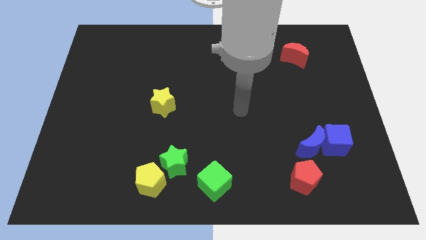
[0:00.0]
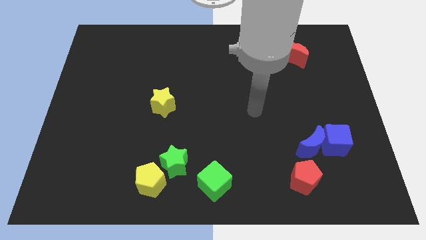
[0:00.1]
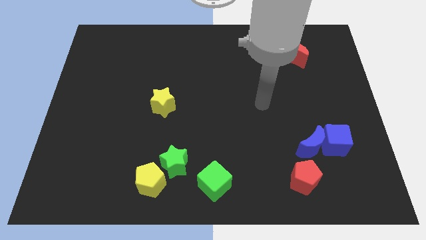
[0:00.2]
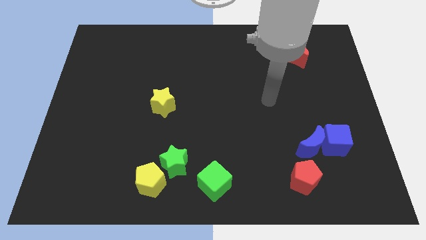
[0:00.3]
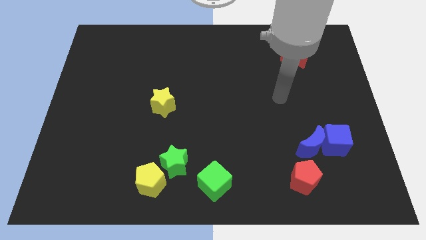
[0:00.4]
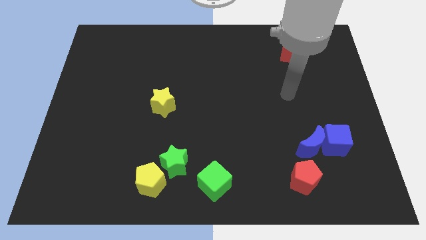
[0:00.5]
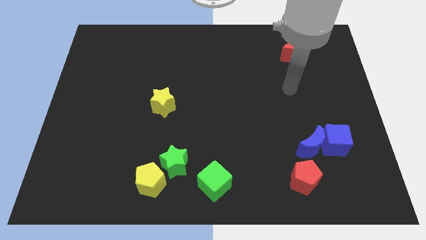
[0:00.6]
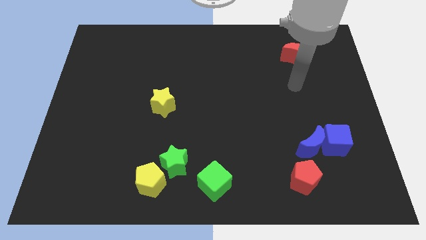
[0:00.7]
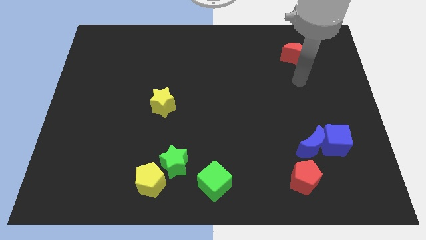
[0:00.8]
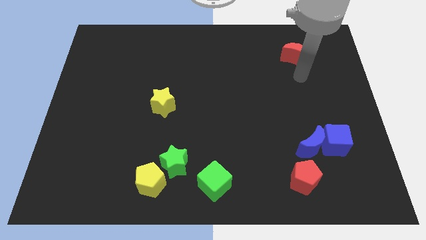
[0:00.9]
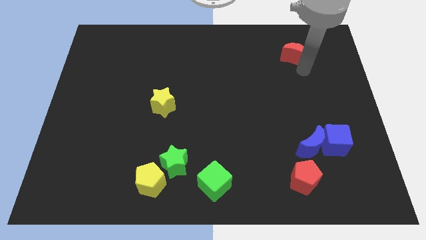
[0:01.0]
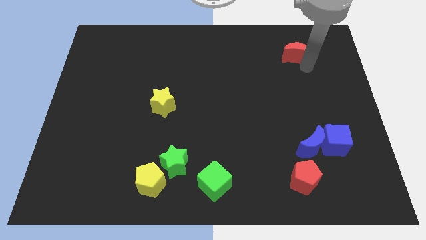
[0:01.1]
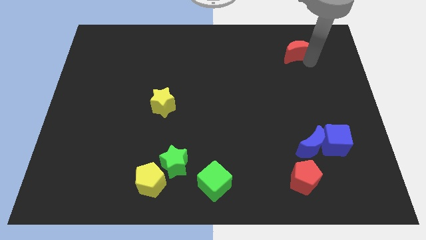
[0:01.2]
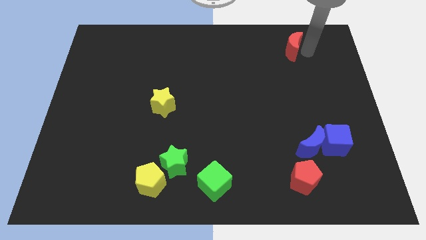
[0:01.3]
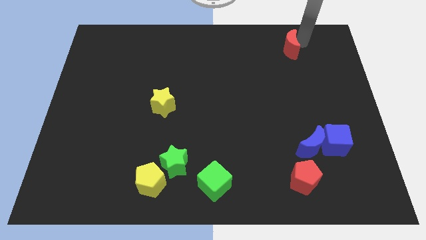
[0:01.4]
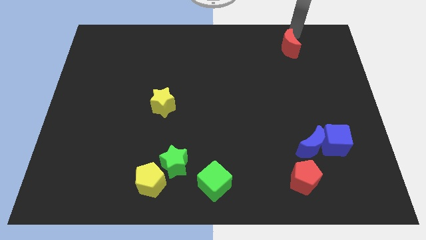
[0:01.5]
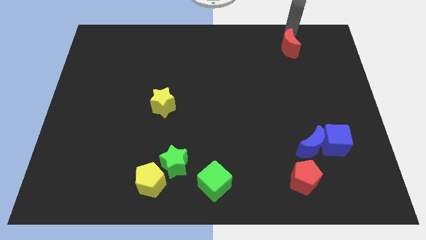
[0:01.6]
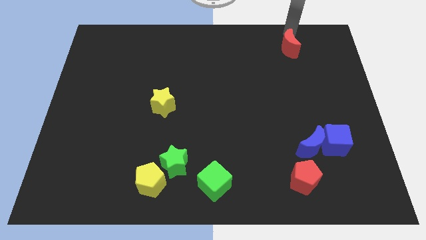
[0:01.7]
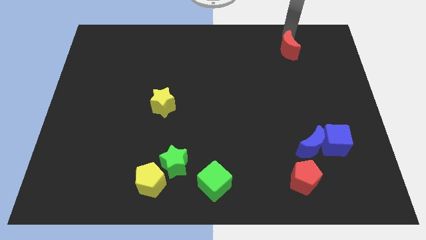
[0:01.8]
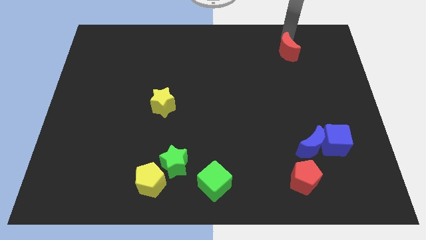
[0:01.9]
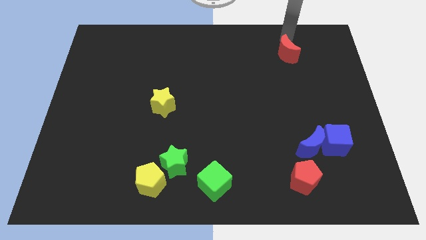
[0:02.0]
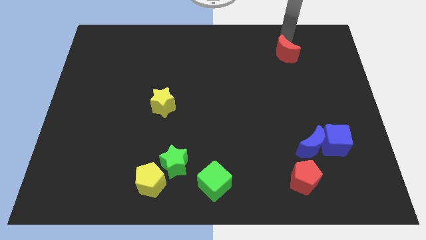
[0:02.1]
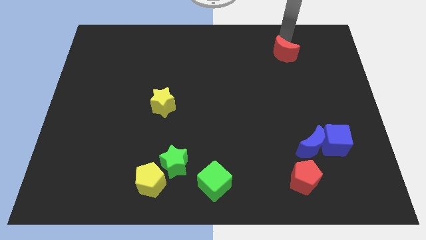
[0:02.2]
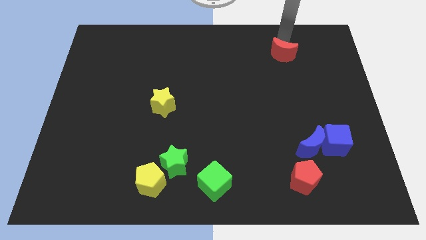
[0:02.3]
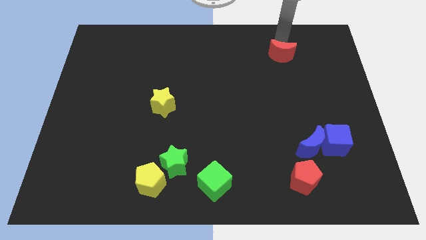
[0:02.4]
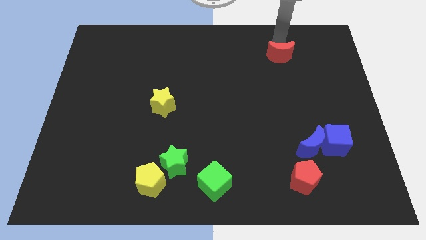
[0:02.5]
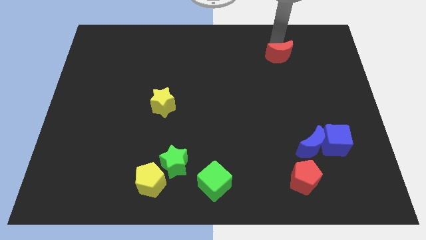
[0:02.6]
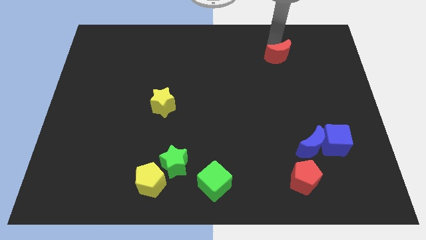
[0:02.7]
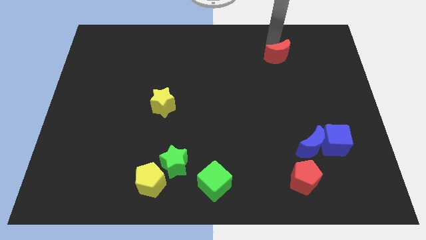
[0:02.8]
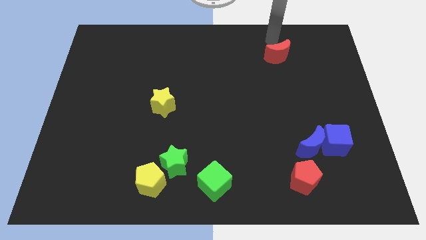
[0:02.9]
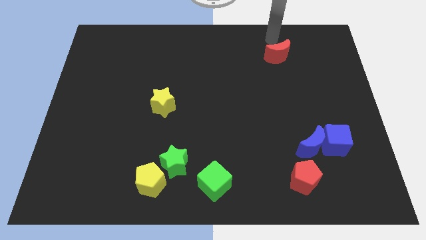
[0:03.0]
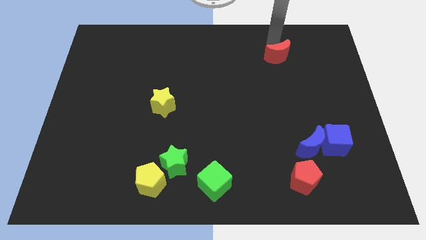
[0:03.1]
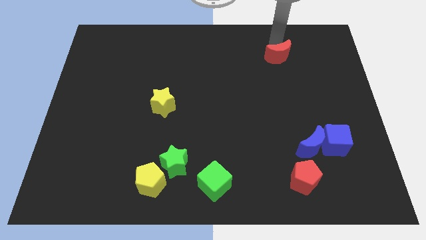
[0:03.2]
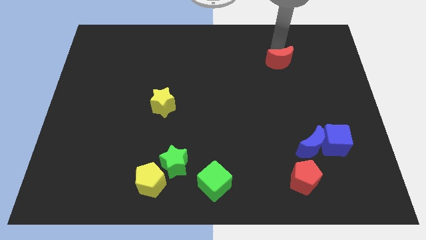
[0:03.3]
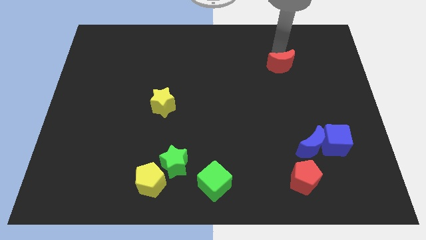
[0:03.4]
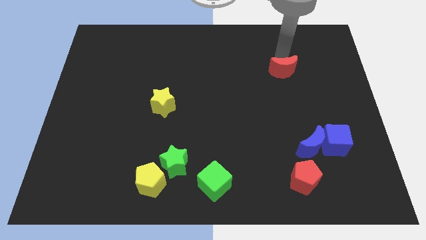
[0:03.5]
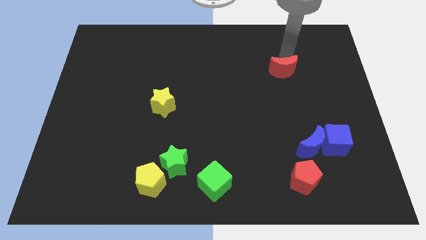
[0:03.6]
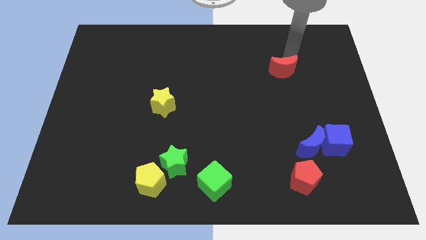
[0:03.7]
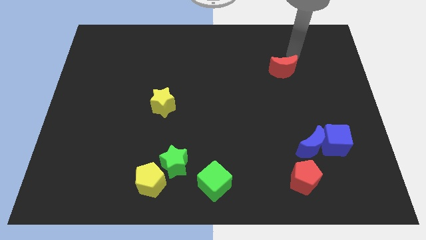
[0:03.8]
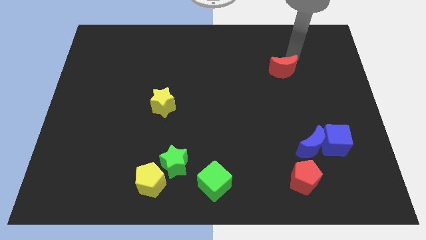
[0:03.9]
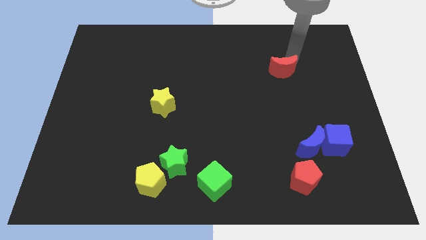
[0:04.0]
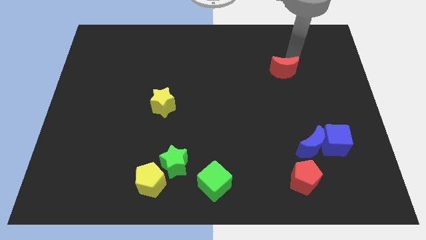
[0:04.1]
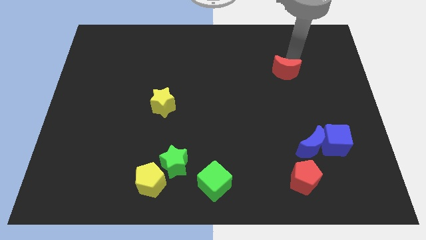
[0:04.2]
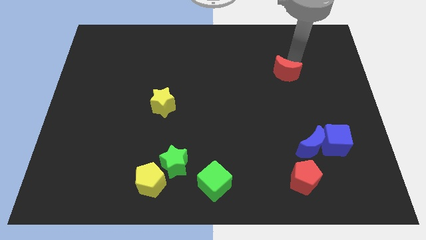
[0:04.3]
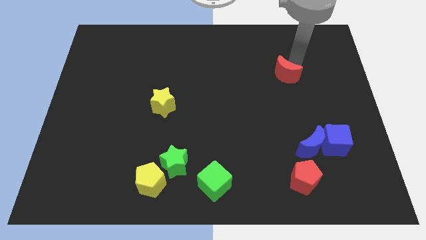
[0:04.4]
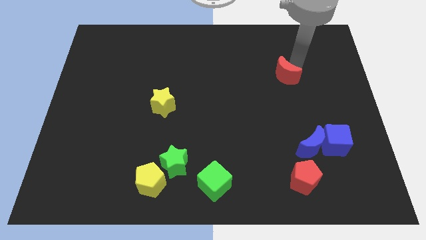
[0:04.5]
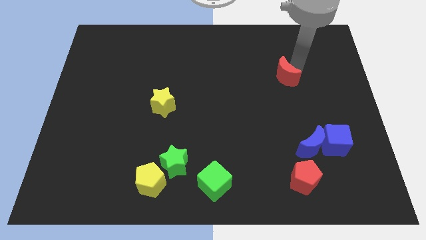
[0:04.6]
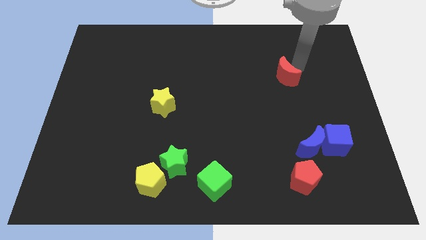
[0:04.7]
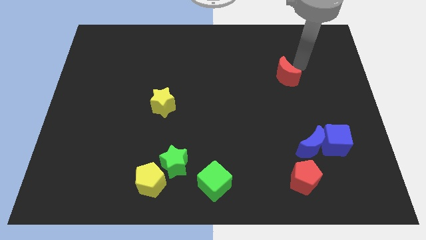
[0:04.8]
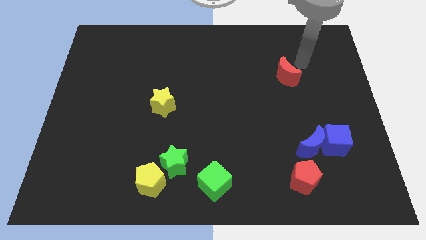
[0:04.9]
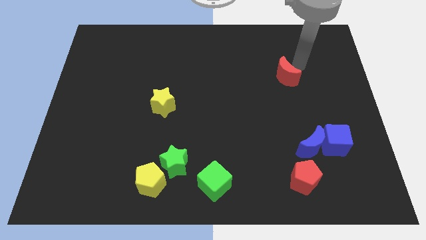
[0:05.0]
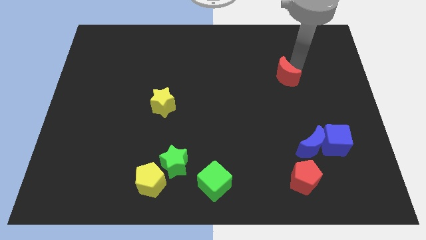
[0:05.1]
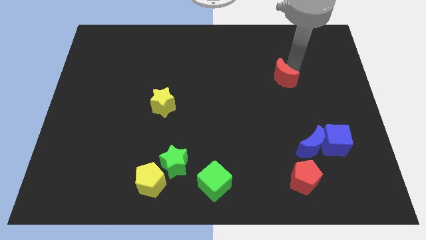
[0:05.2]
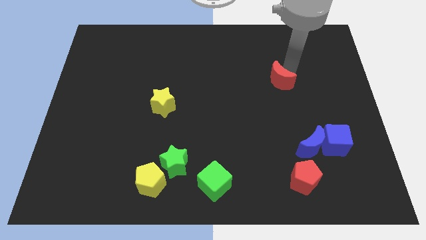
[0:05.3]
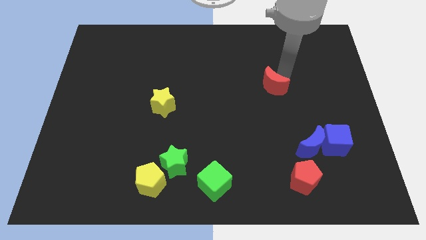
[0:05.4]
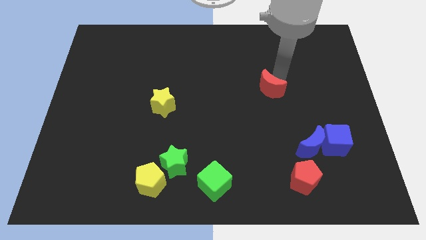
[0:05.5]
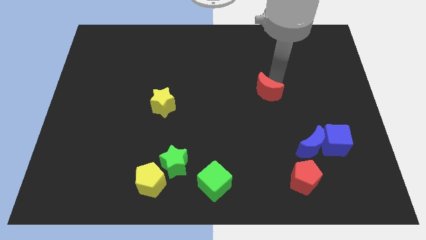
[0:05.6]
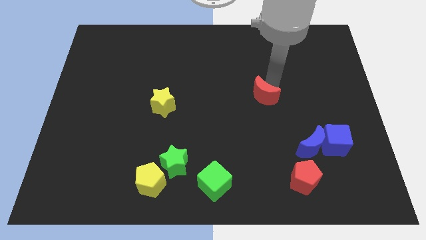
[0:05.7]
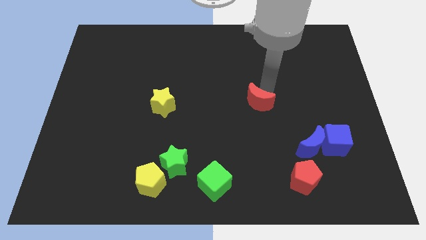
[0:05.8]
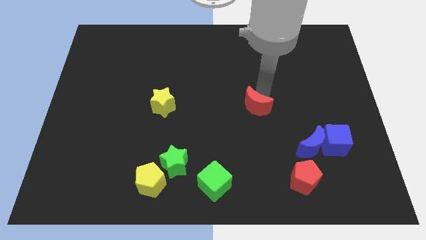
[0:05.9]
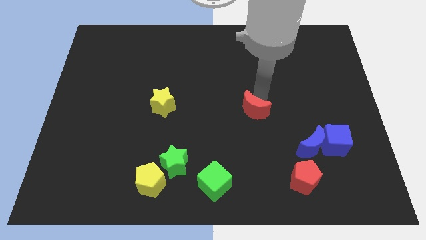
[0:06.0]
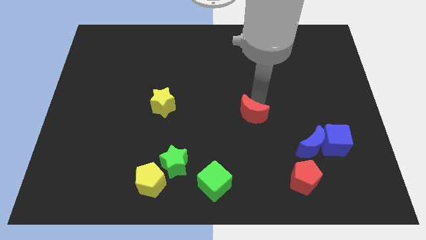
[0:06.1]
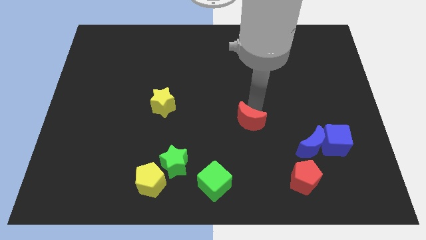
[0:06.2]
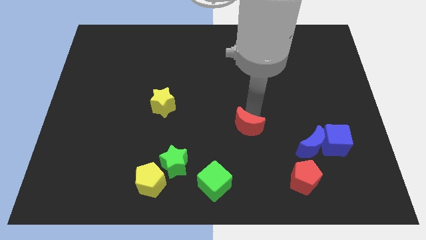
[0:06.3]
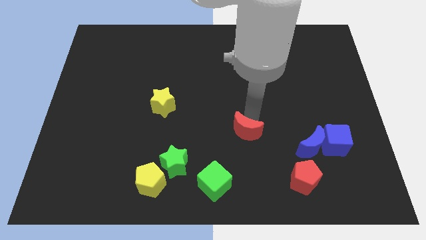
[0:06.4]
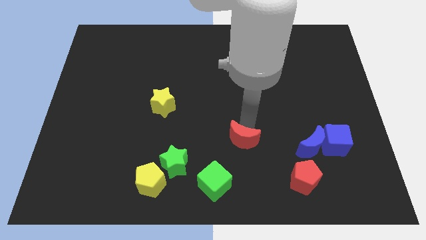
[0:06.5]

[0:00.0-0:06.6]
push the red moon to the top right side of the green cube

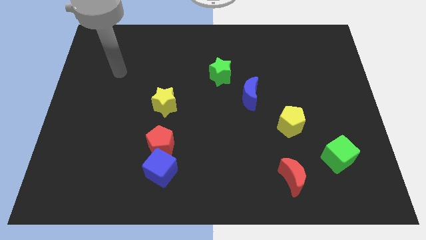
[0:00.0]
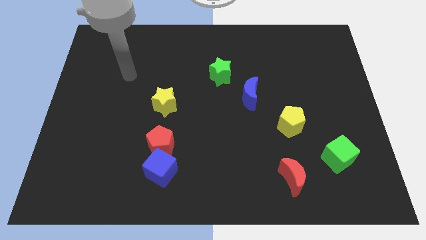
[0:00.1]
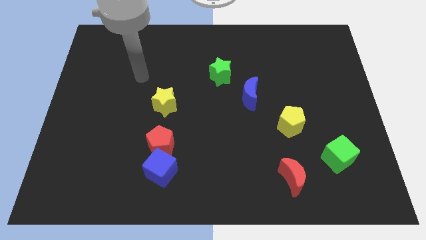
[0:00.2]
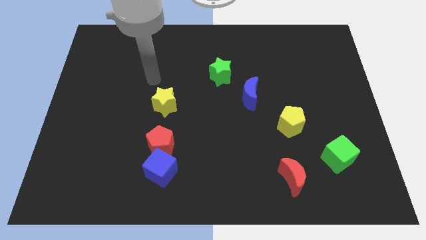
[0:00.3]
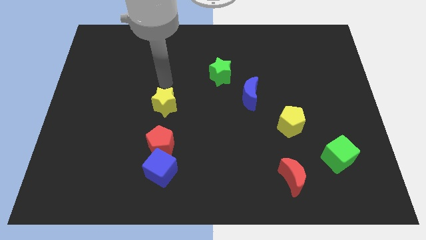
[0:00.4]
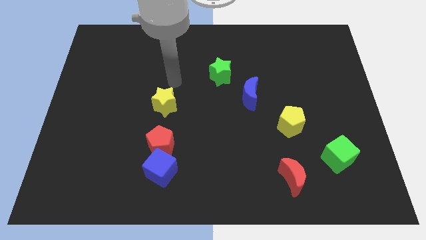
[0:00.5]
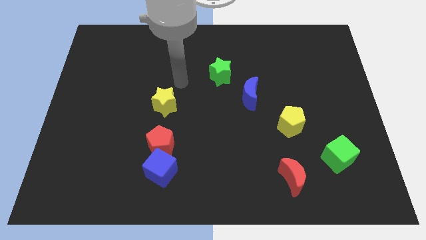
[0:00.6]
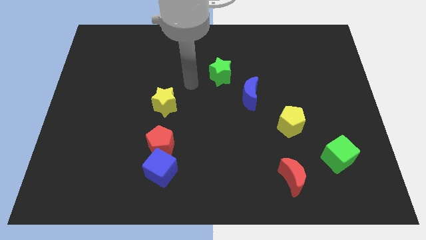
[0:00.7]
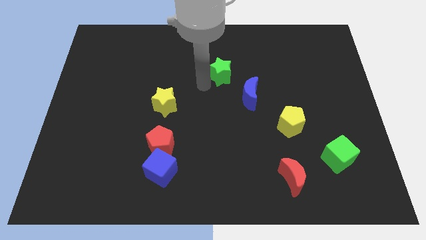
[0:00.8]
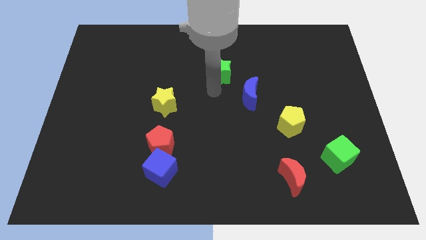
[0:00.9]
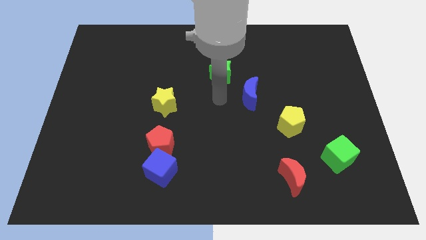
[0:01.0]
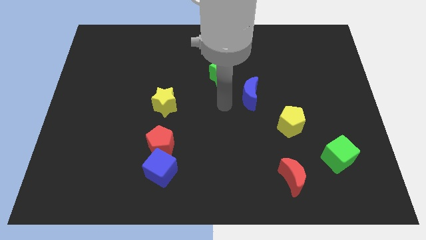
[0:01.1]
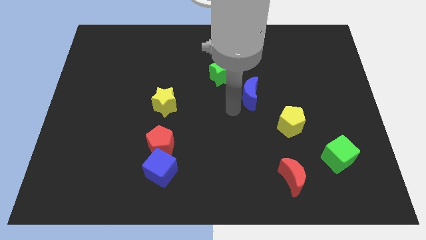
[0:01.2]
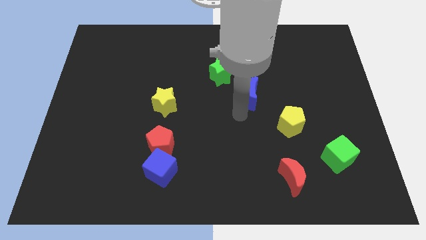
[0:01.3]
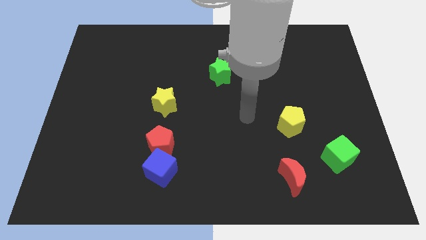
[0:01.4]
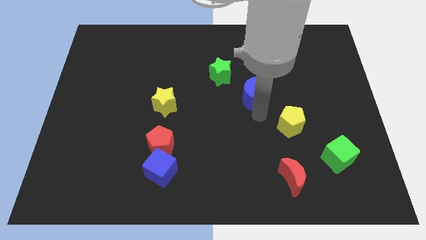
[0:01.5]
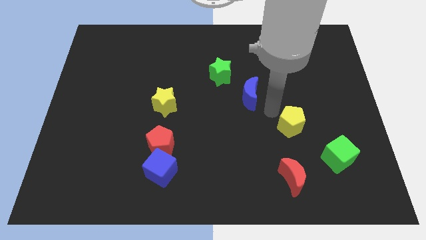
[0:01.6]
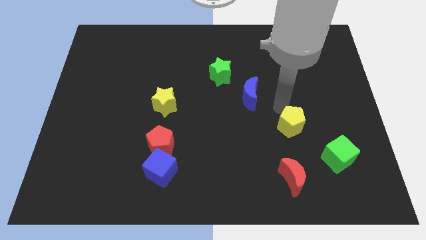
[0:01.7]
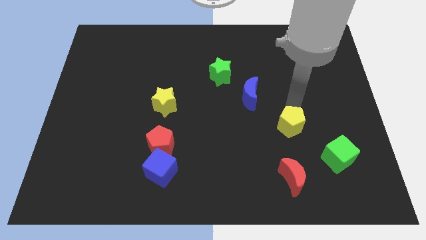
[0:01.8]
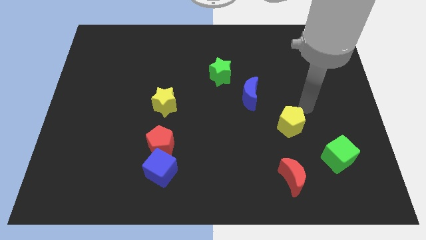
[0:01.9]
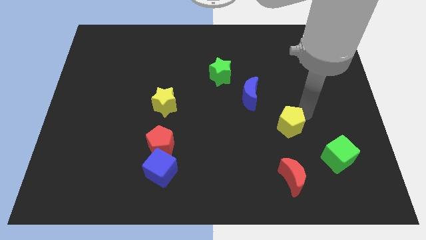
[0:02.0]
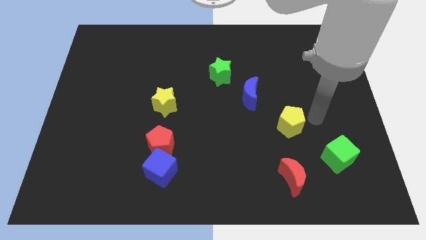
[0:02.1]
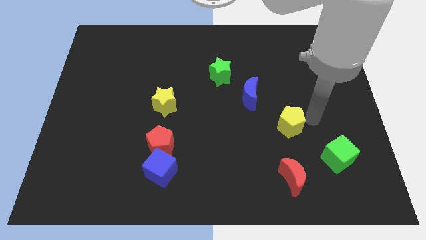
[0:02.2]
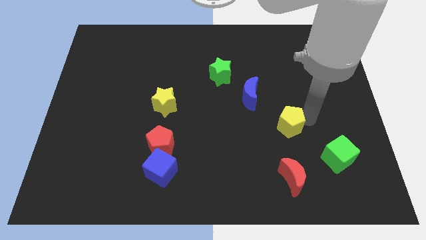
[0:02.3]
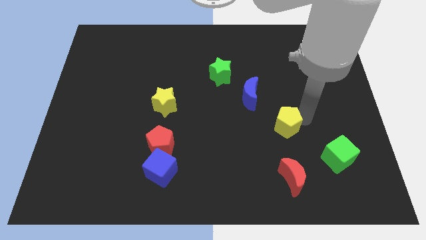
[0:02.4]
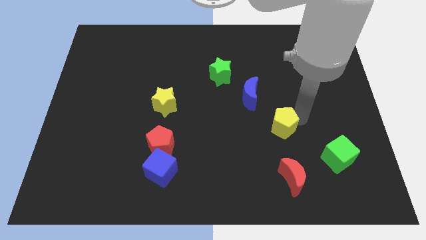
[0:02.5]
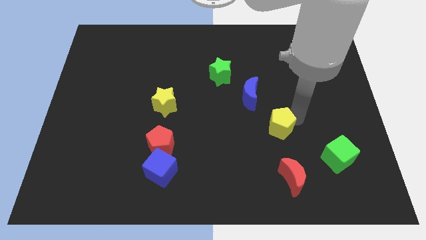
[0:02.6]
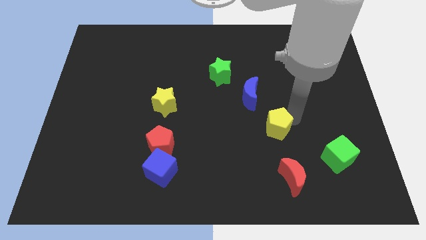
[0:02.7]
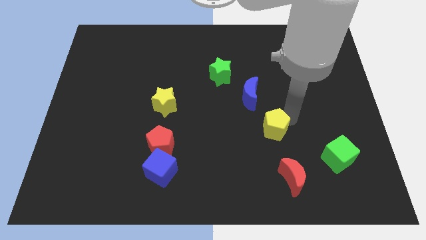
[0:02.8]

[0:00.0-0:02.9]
slide the yellow pentagon to the bottom of the blue moon
